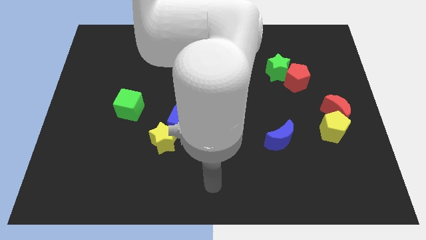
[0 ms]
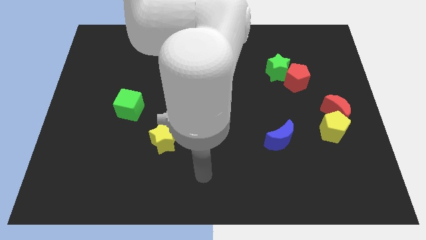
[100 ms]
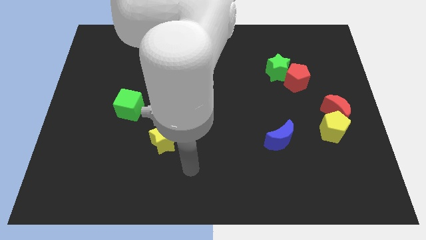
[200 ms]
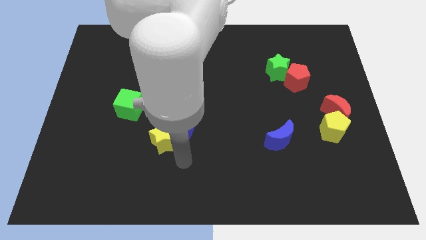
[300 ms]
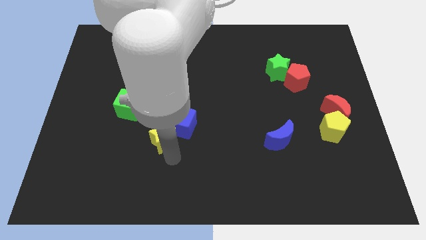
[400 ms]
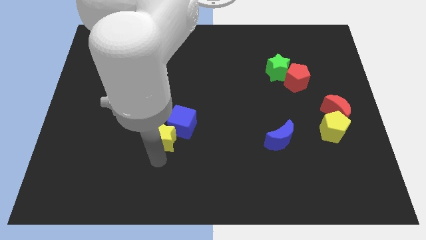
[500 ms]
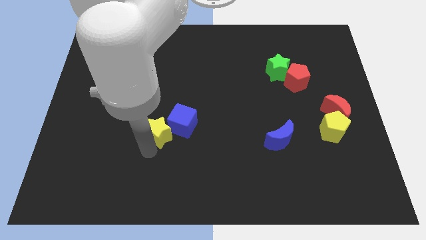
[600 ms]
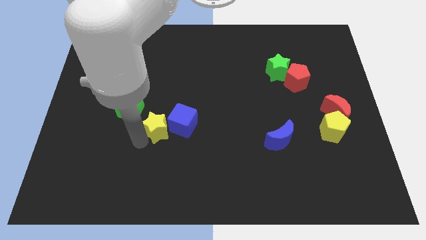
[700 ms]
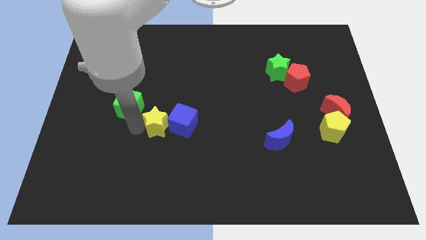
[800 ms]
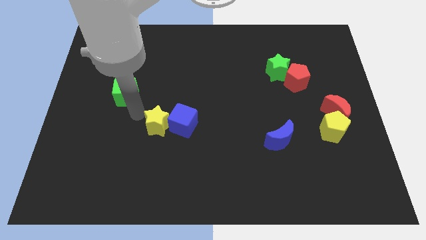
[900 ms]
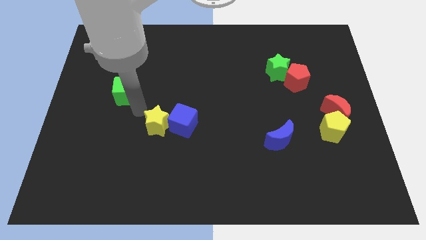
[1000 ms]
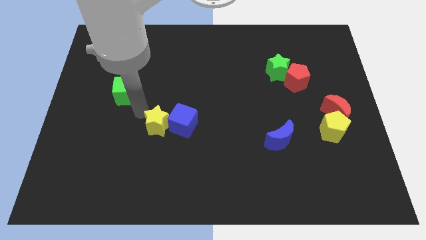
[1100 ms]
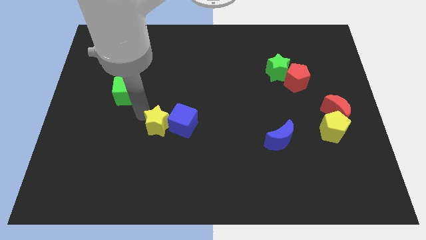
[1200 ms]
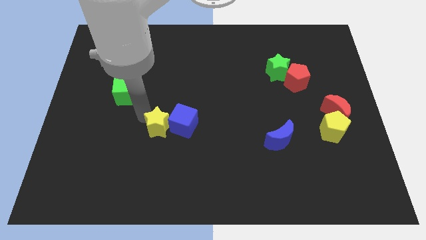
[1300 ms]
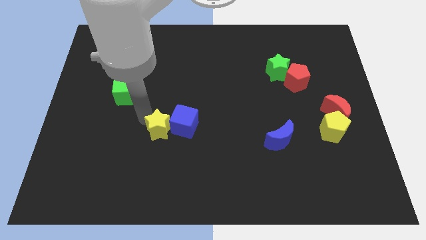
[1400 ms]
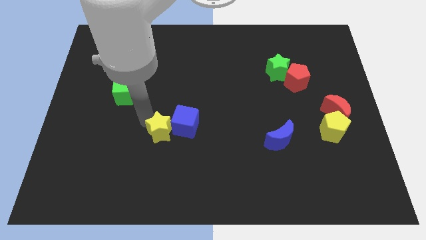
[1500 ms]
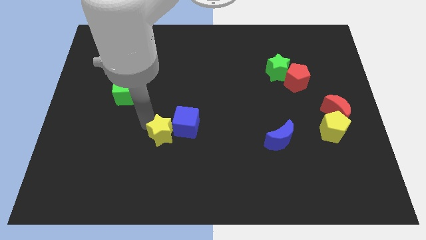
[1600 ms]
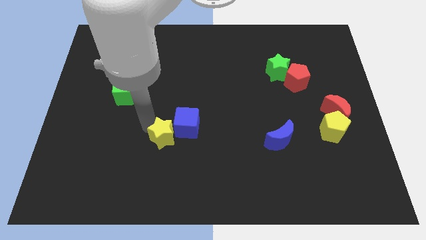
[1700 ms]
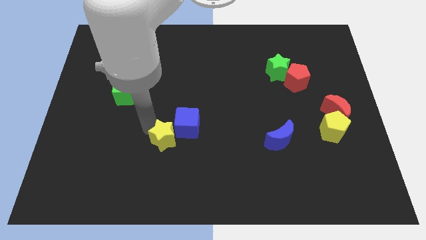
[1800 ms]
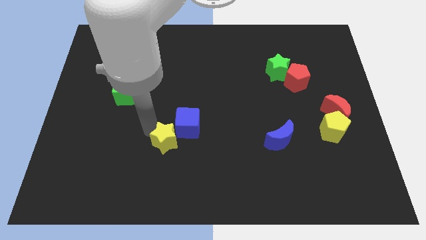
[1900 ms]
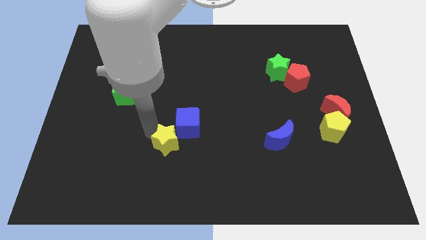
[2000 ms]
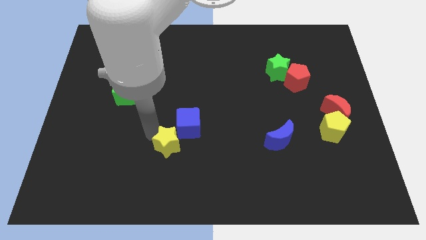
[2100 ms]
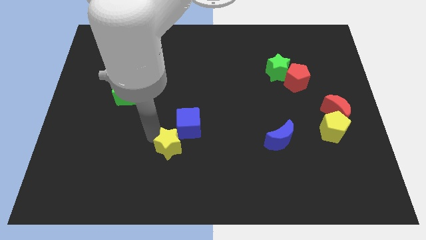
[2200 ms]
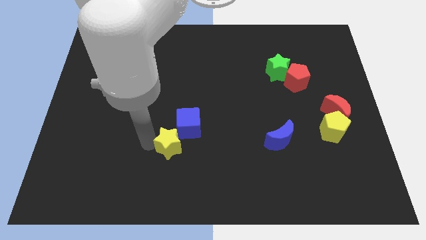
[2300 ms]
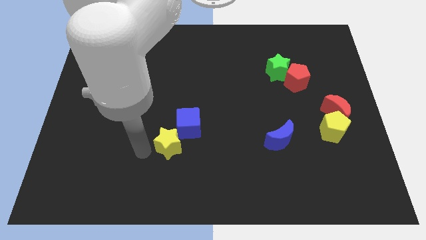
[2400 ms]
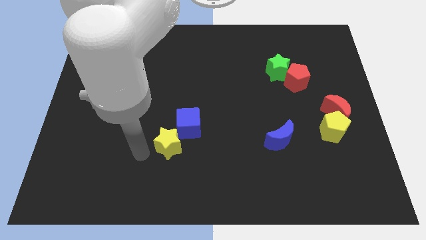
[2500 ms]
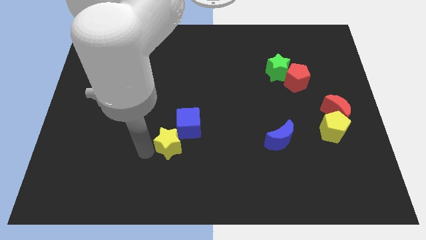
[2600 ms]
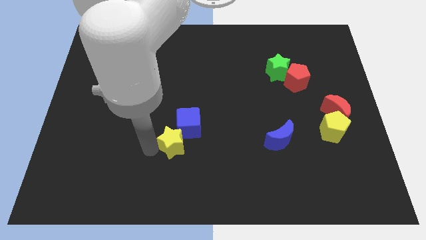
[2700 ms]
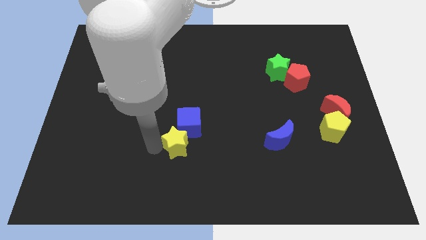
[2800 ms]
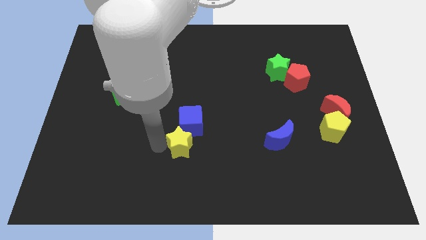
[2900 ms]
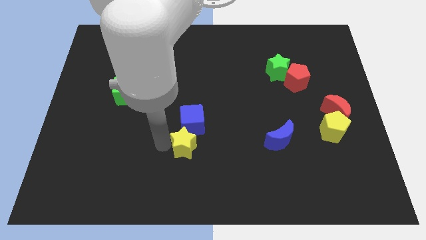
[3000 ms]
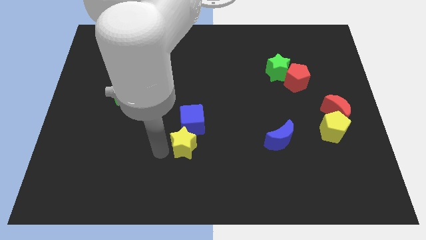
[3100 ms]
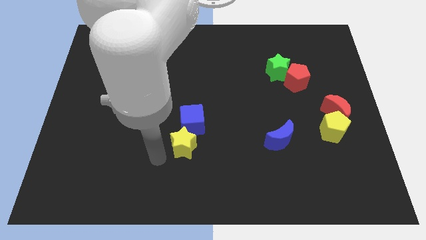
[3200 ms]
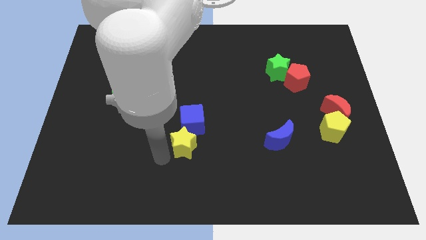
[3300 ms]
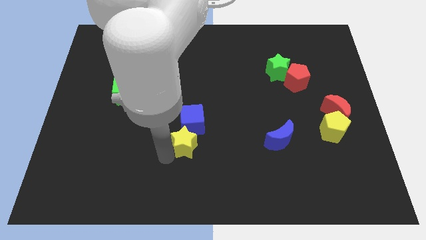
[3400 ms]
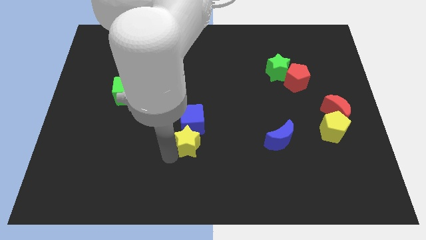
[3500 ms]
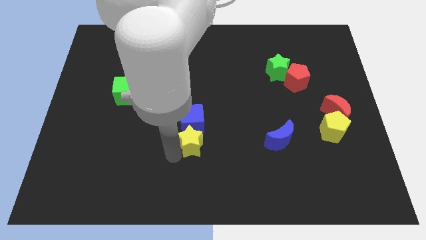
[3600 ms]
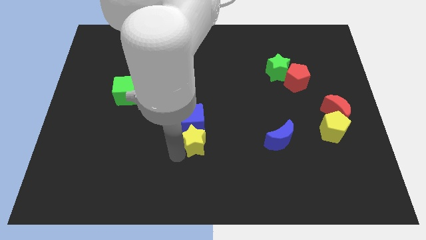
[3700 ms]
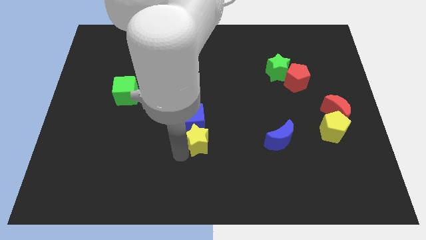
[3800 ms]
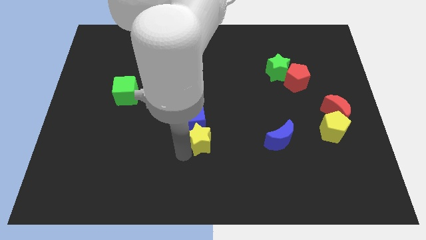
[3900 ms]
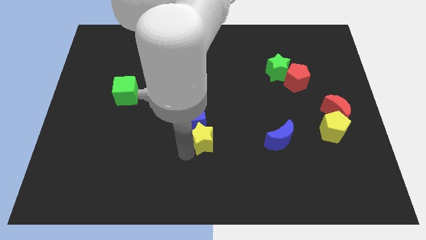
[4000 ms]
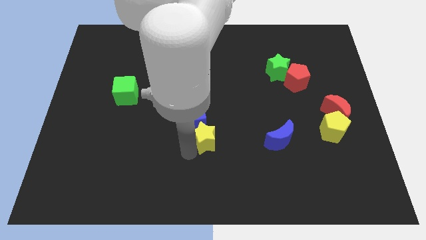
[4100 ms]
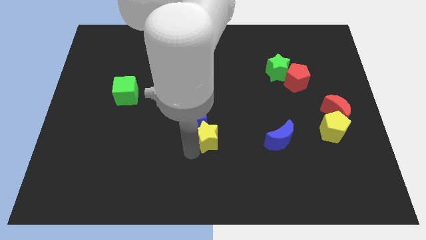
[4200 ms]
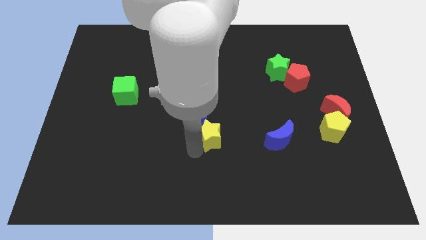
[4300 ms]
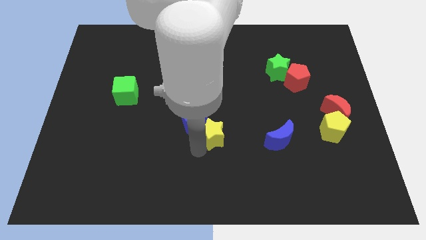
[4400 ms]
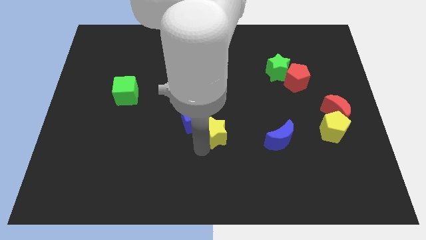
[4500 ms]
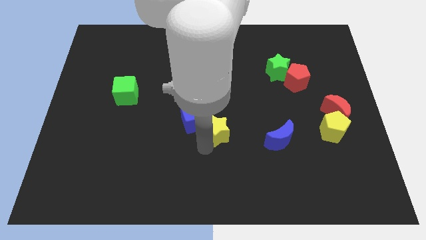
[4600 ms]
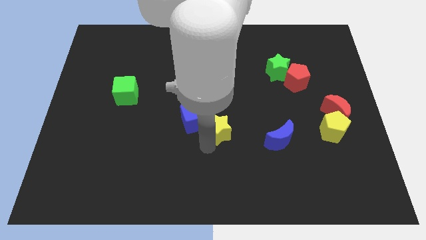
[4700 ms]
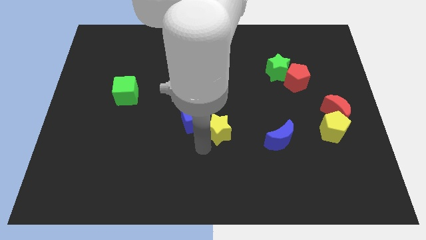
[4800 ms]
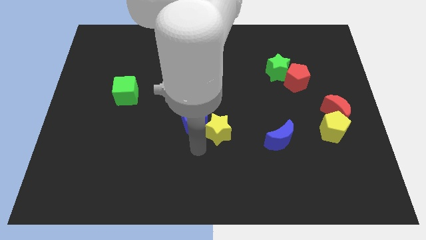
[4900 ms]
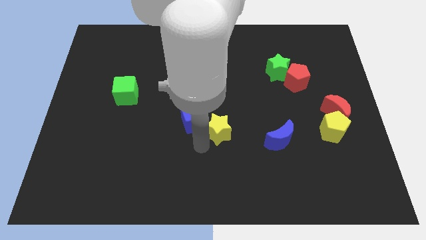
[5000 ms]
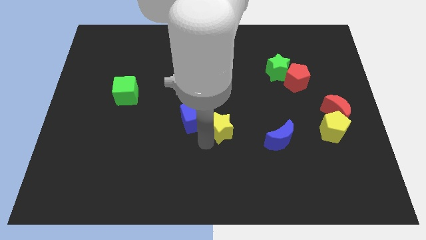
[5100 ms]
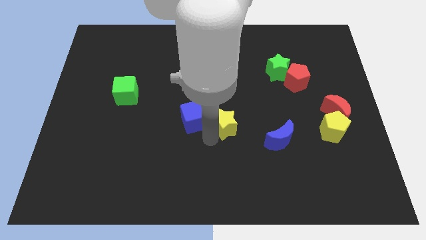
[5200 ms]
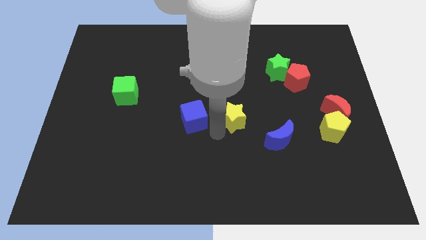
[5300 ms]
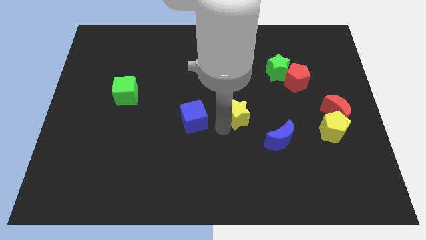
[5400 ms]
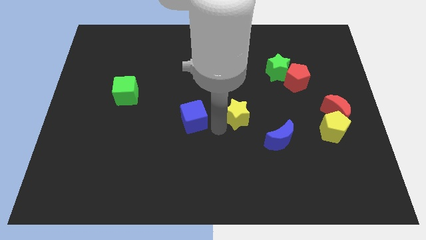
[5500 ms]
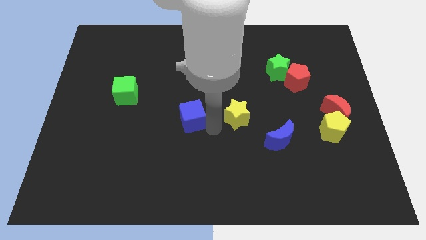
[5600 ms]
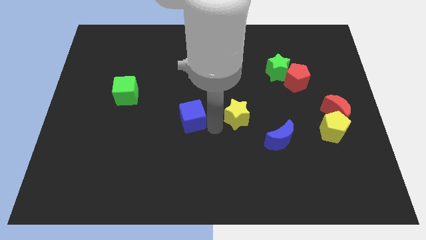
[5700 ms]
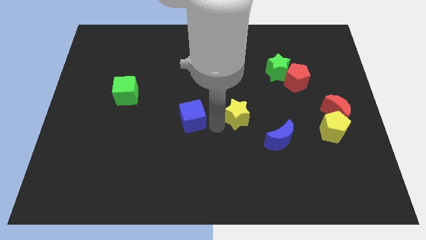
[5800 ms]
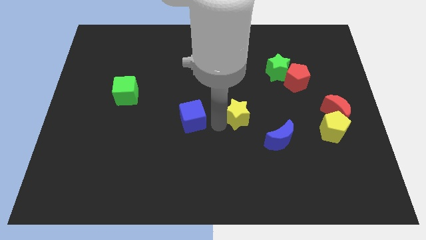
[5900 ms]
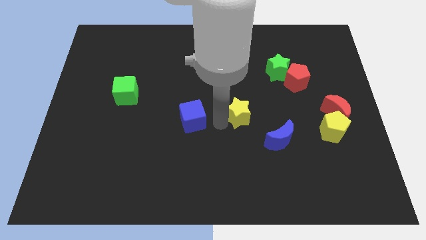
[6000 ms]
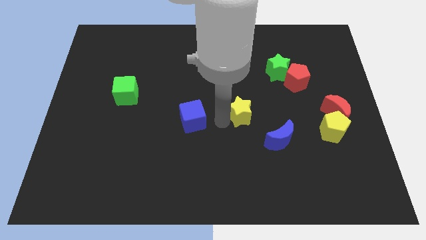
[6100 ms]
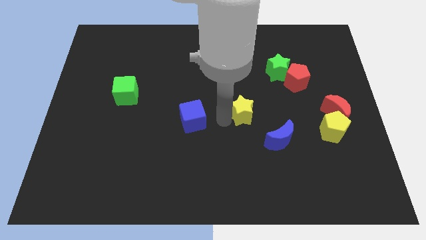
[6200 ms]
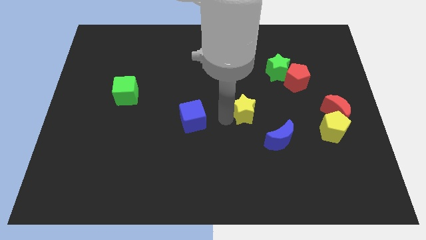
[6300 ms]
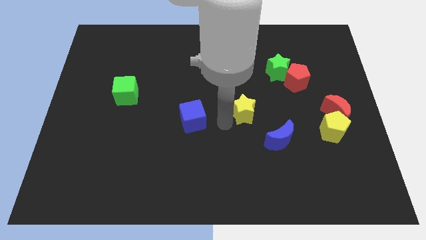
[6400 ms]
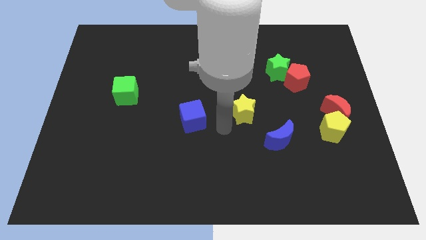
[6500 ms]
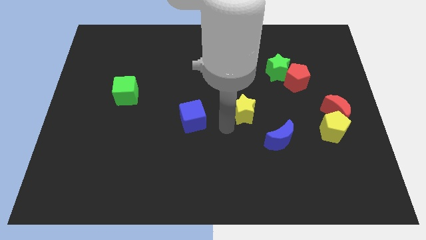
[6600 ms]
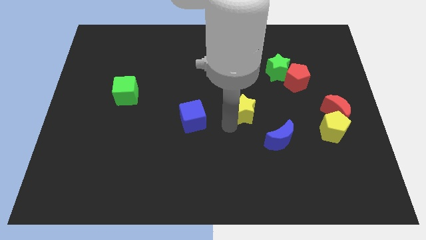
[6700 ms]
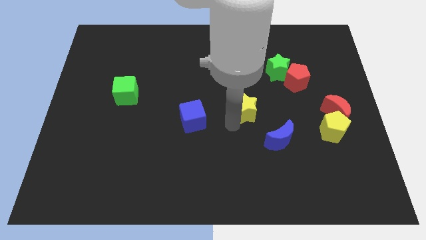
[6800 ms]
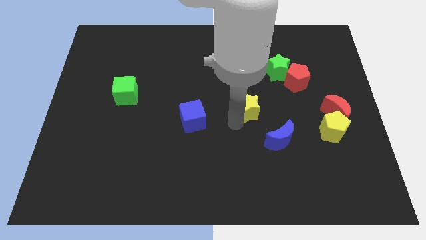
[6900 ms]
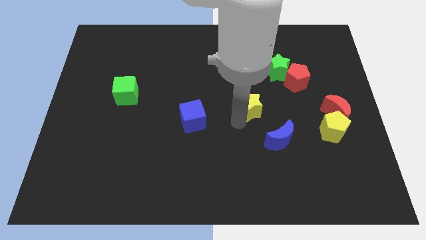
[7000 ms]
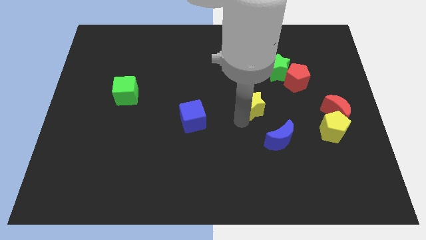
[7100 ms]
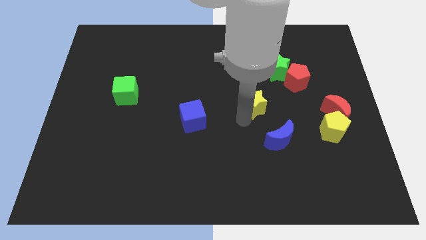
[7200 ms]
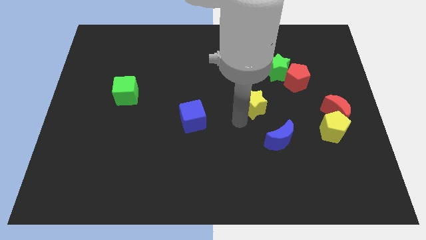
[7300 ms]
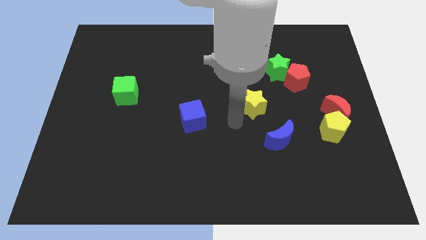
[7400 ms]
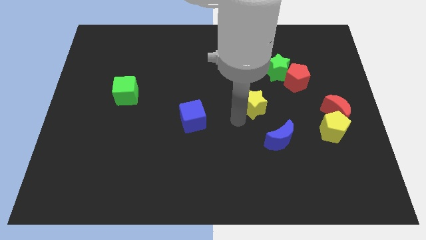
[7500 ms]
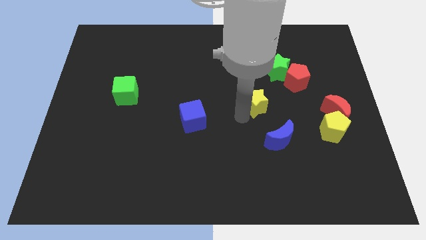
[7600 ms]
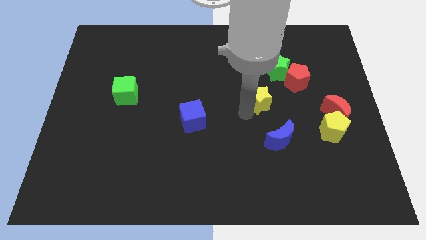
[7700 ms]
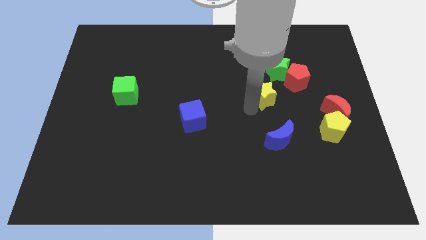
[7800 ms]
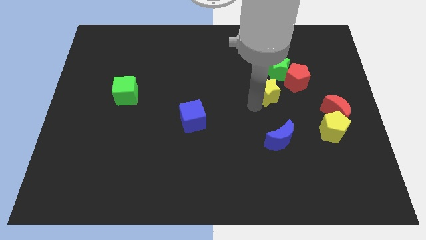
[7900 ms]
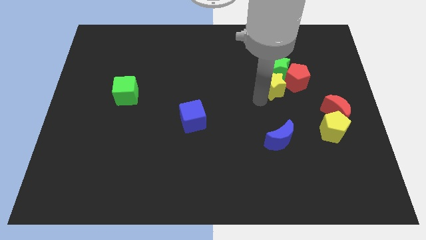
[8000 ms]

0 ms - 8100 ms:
move the yellow star next to the red pentagon
